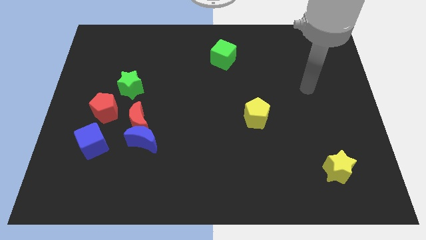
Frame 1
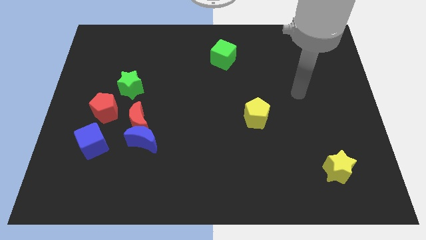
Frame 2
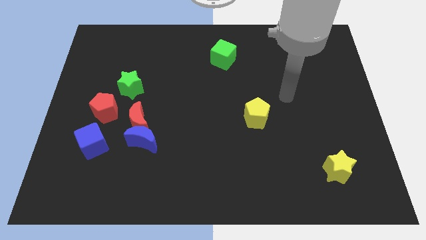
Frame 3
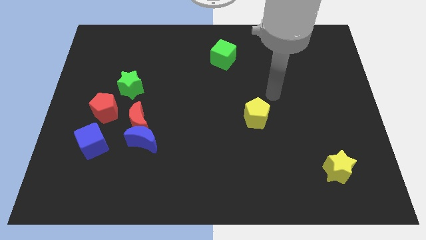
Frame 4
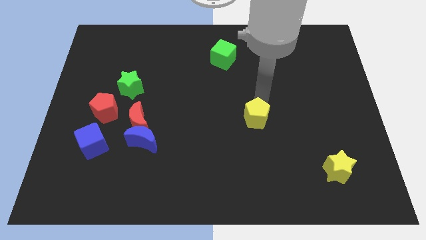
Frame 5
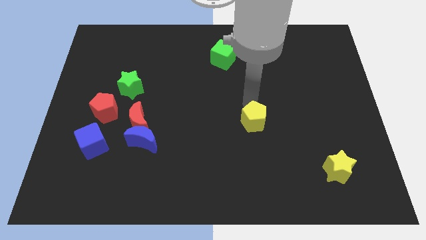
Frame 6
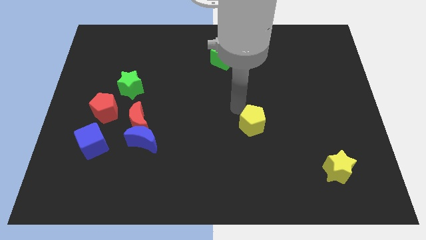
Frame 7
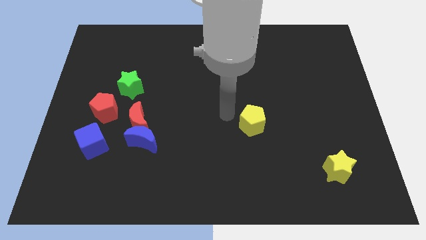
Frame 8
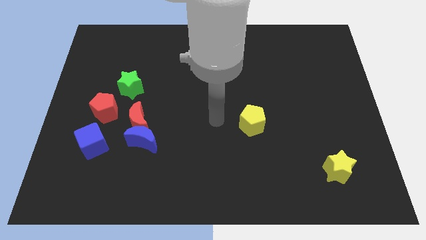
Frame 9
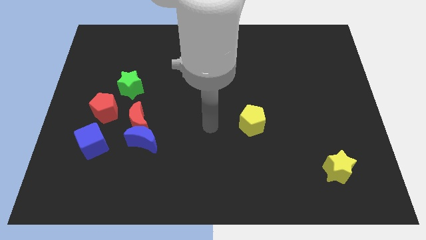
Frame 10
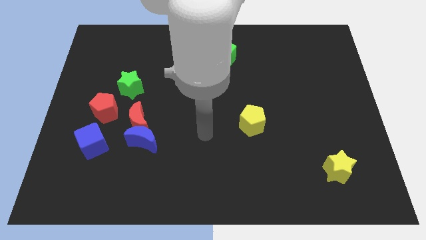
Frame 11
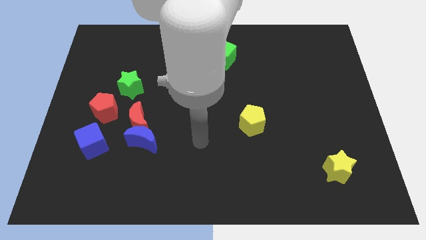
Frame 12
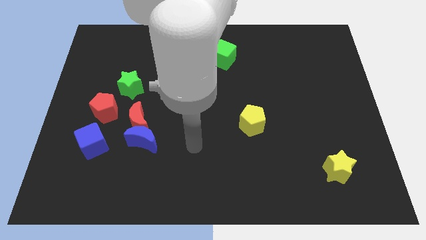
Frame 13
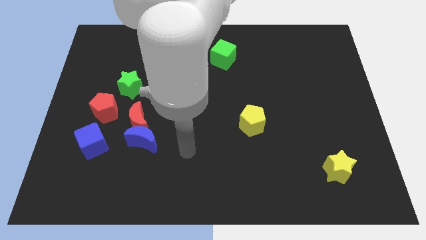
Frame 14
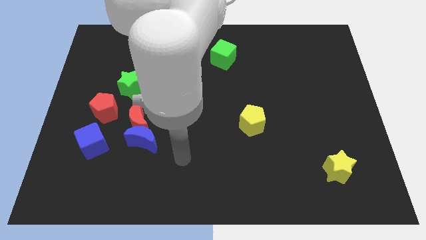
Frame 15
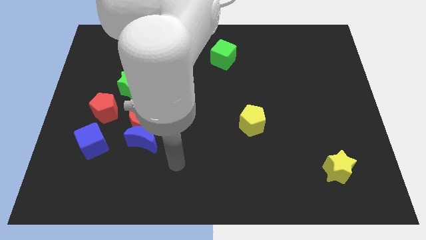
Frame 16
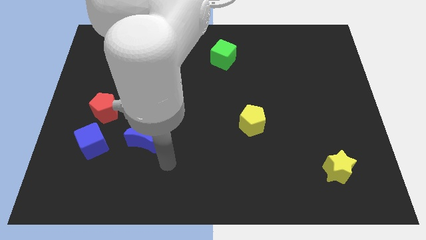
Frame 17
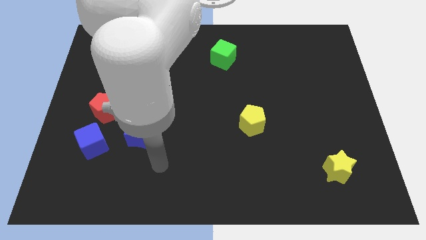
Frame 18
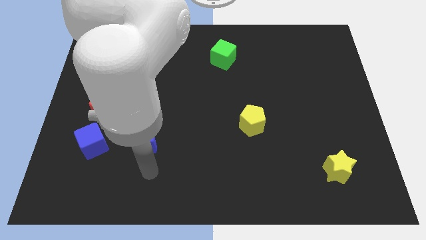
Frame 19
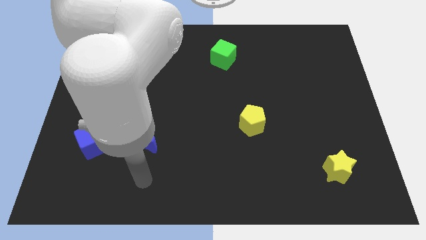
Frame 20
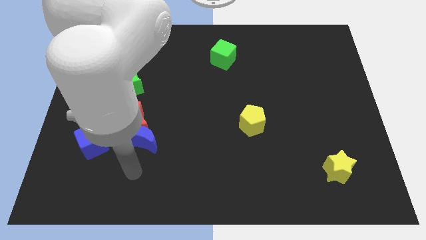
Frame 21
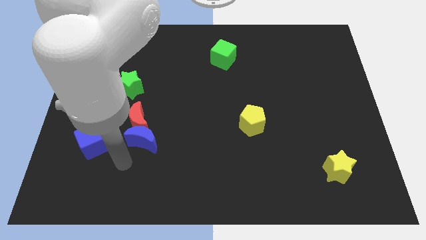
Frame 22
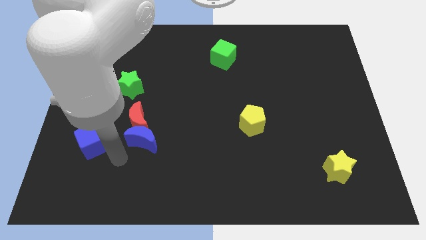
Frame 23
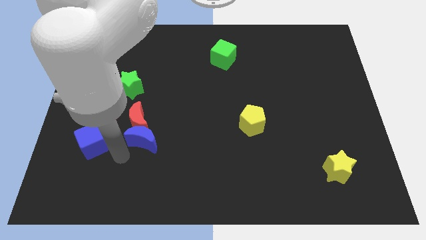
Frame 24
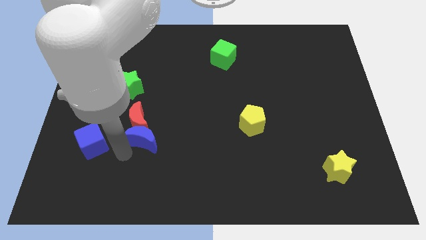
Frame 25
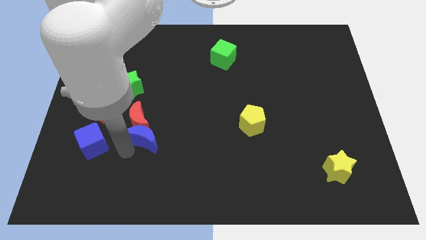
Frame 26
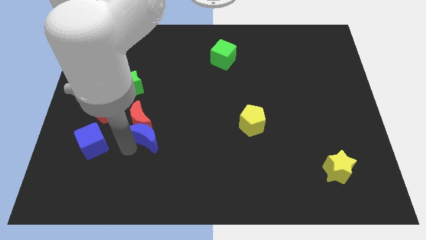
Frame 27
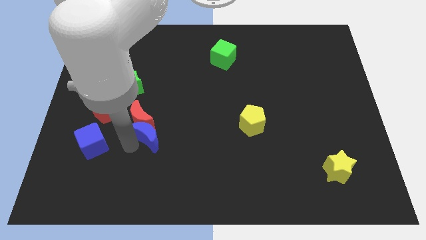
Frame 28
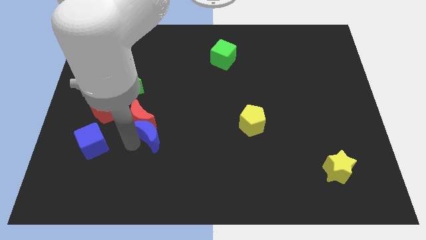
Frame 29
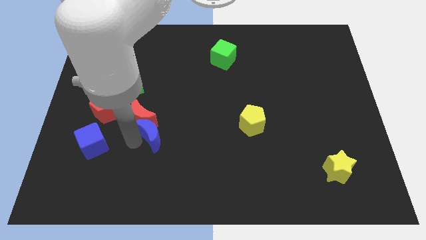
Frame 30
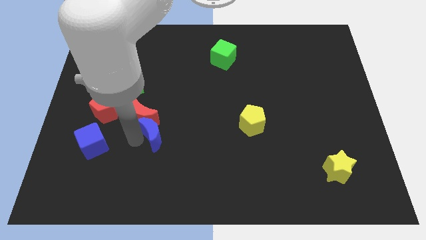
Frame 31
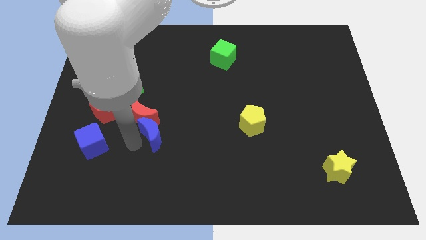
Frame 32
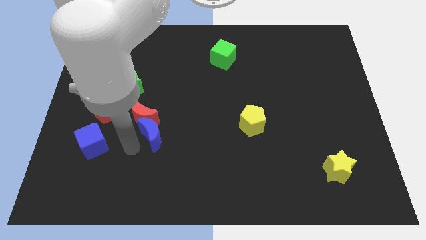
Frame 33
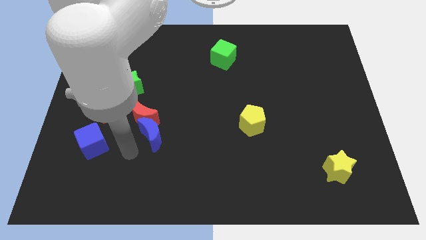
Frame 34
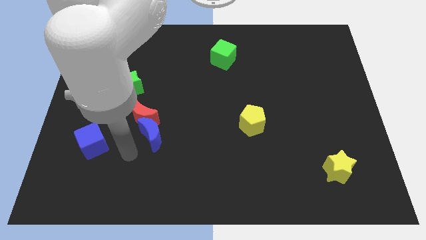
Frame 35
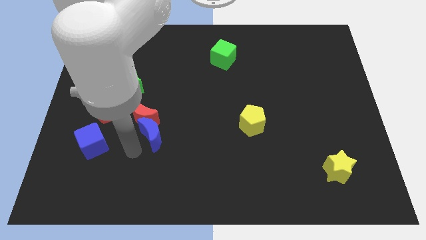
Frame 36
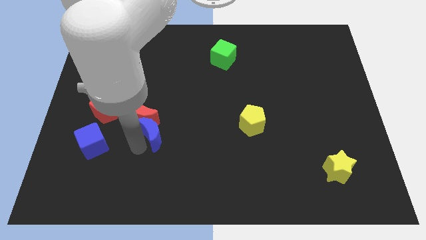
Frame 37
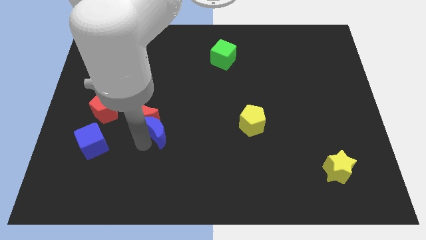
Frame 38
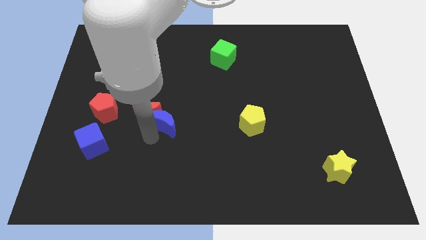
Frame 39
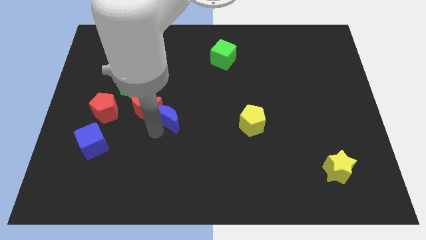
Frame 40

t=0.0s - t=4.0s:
slightly slide the blue moon diagonally up and right

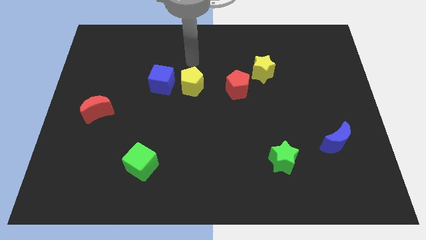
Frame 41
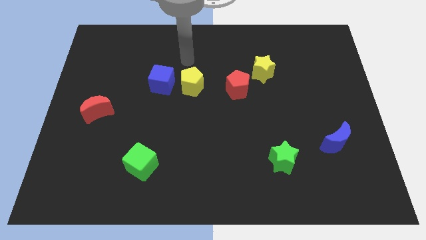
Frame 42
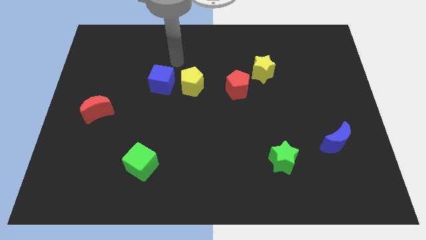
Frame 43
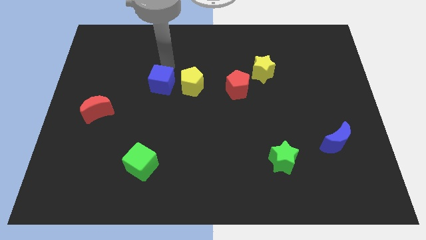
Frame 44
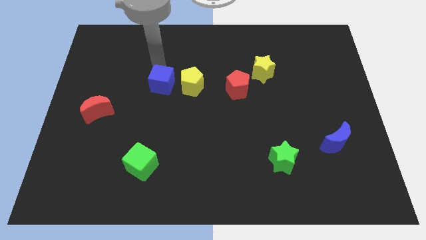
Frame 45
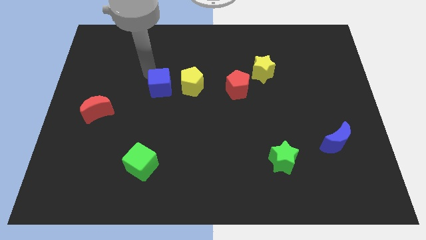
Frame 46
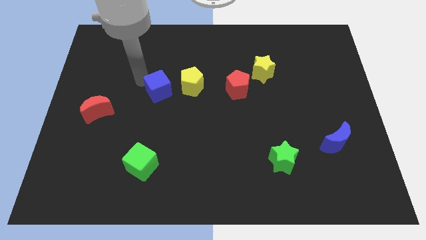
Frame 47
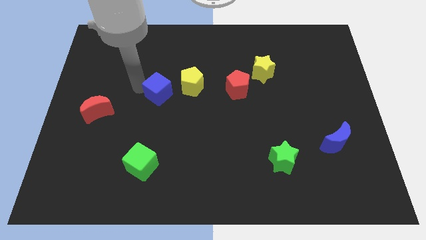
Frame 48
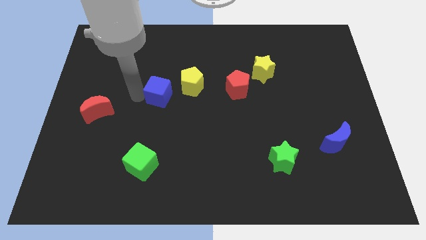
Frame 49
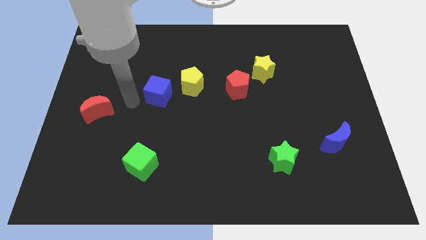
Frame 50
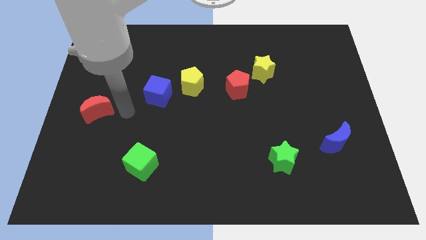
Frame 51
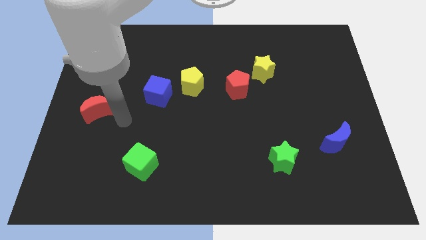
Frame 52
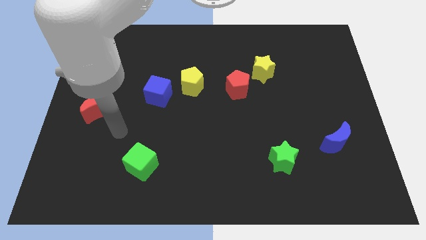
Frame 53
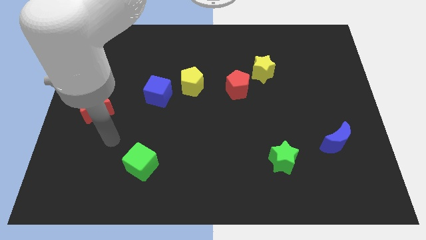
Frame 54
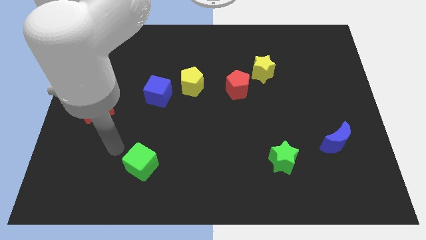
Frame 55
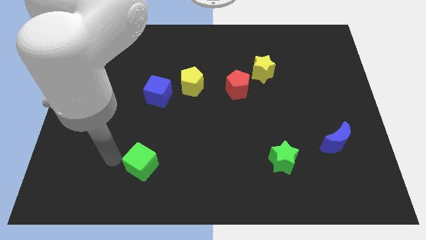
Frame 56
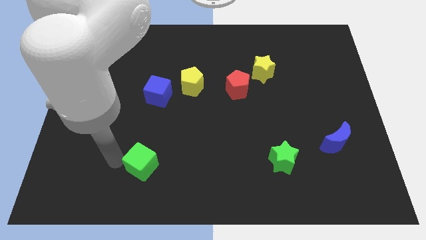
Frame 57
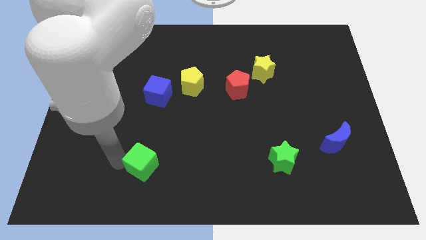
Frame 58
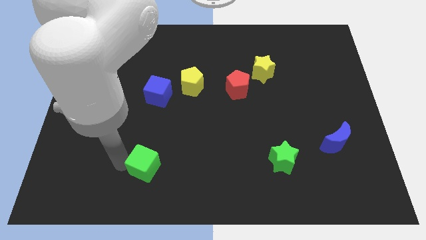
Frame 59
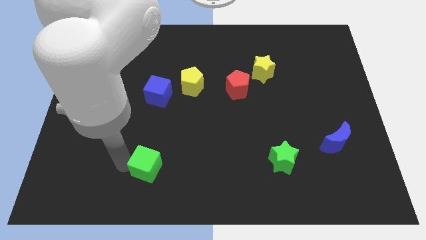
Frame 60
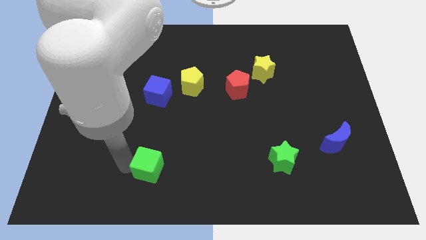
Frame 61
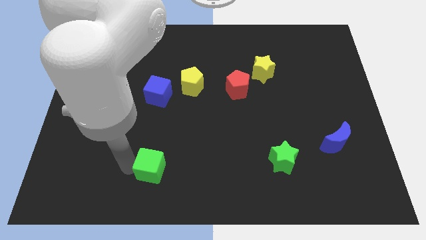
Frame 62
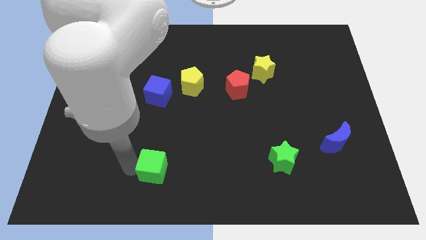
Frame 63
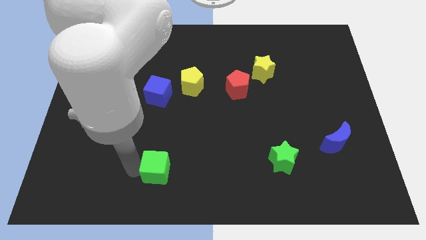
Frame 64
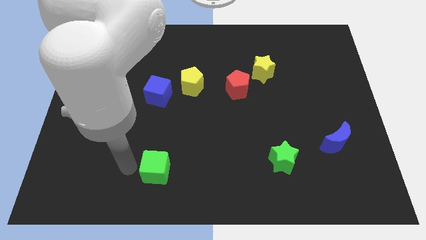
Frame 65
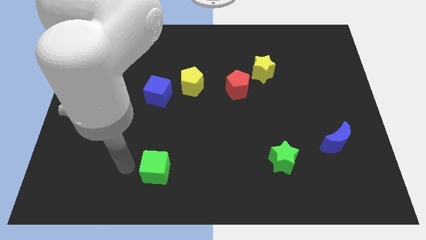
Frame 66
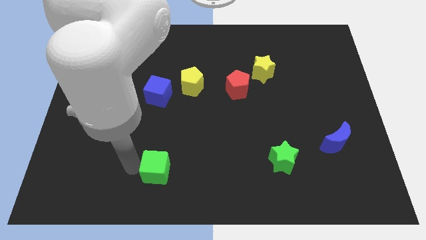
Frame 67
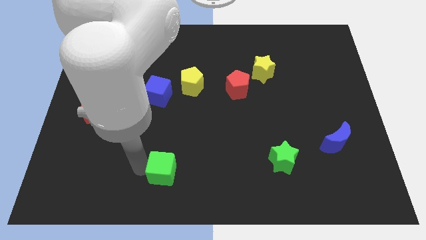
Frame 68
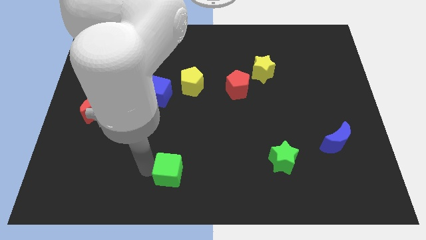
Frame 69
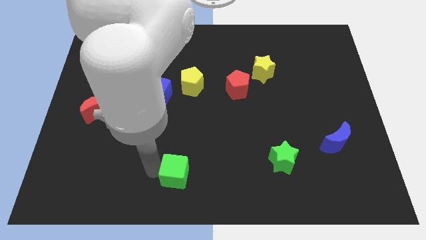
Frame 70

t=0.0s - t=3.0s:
slide the green cube somewhat right

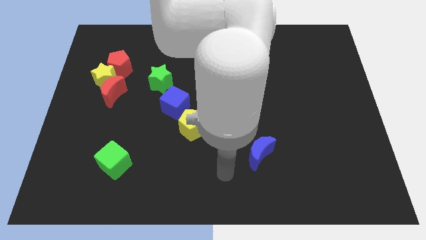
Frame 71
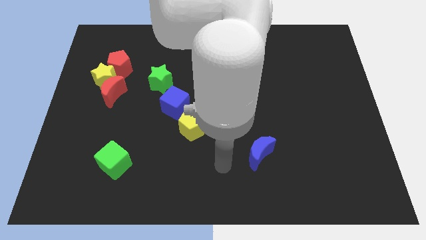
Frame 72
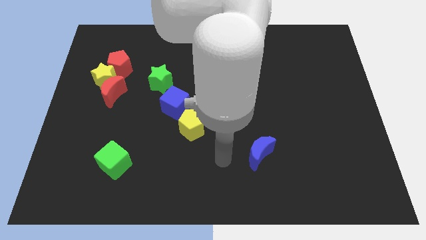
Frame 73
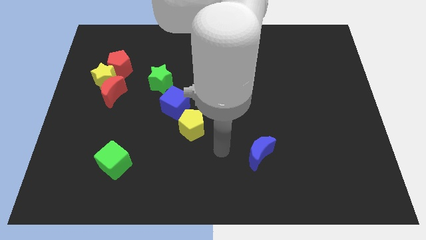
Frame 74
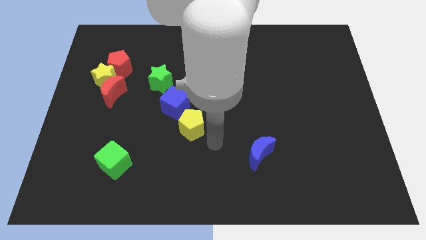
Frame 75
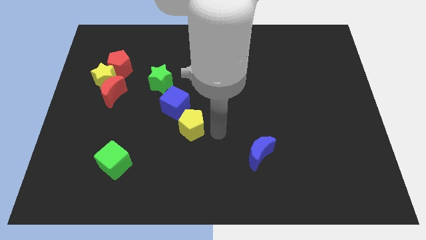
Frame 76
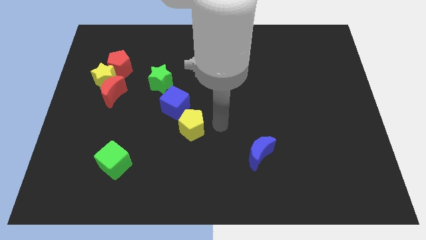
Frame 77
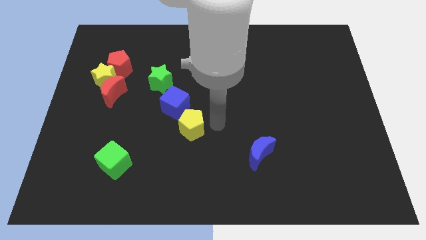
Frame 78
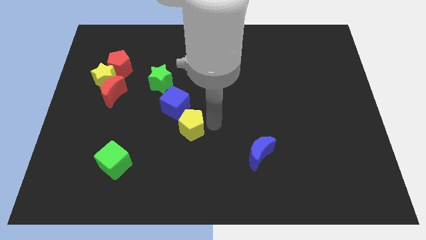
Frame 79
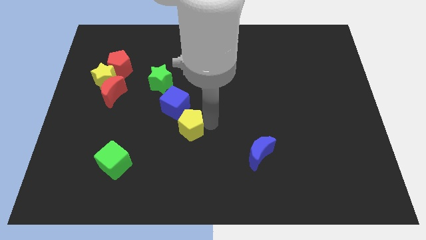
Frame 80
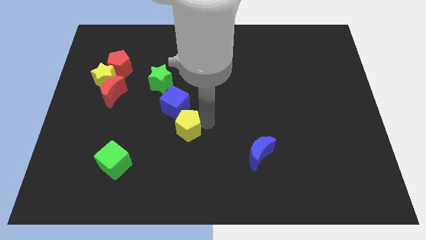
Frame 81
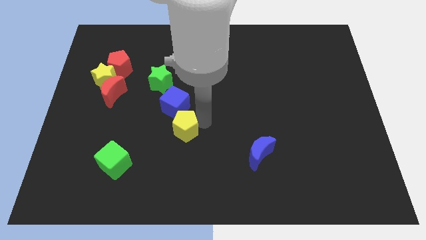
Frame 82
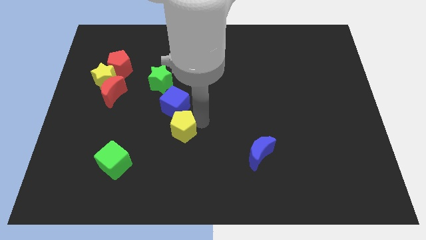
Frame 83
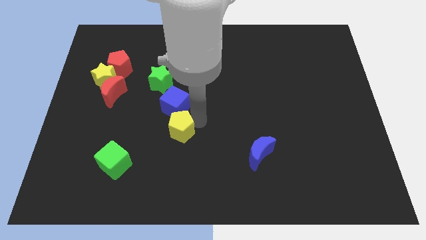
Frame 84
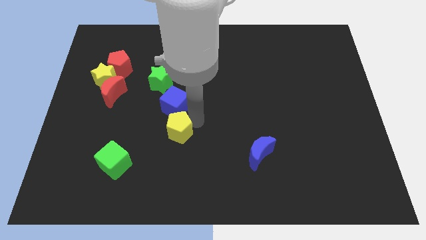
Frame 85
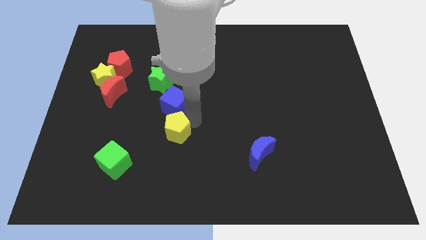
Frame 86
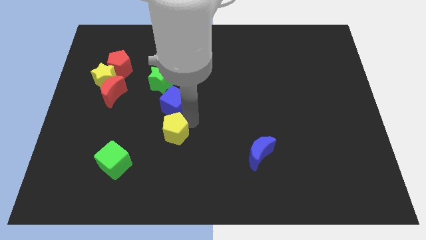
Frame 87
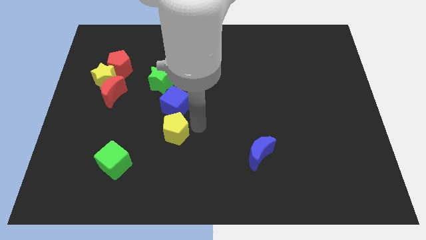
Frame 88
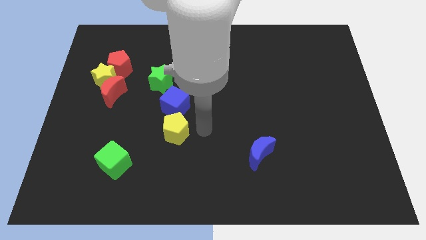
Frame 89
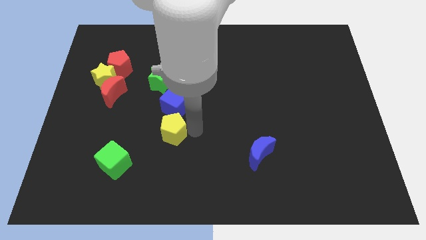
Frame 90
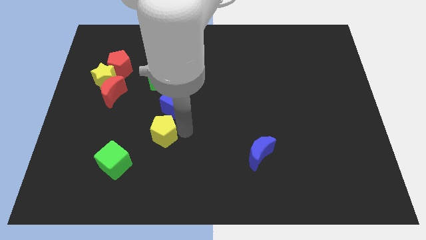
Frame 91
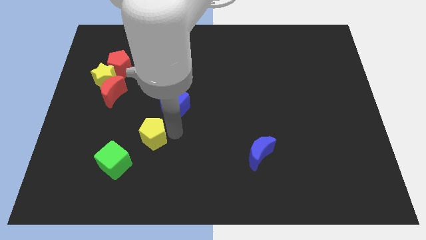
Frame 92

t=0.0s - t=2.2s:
slightly push the yellow pentagon left
